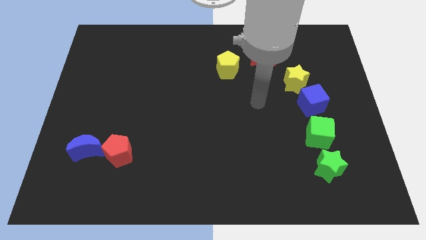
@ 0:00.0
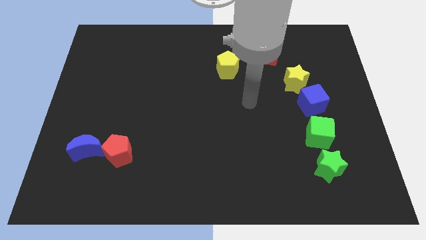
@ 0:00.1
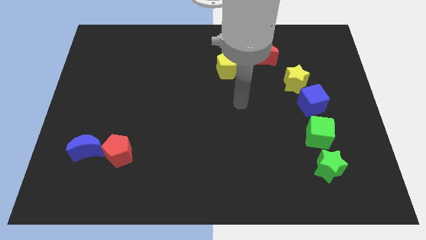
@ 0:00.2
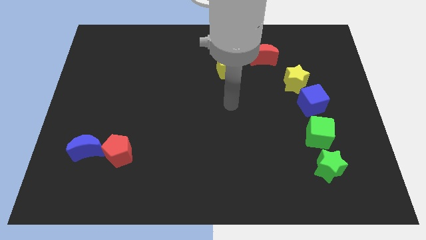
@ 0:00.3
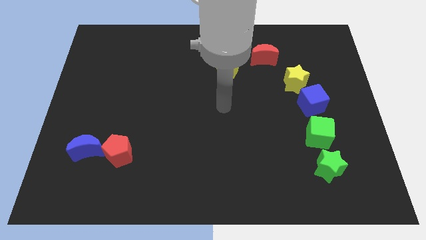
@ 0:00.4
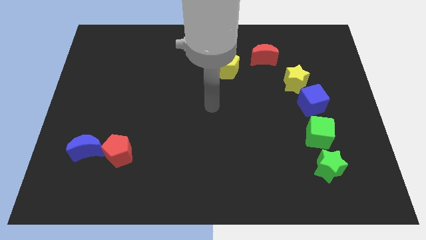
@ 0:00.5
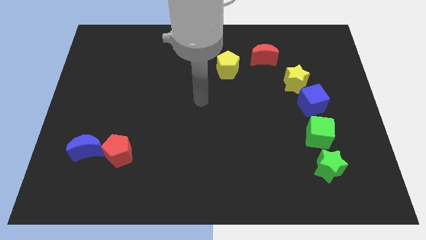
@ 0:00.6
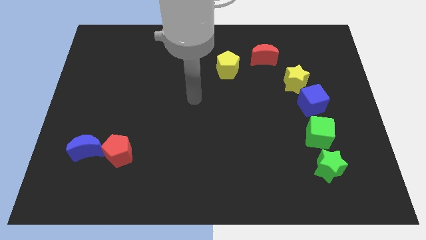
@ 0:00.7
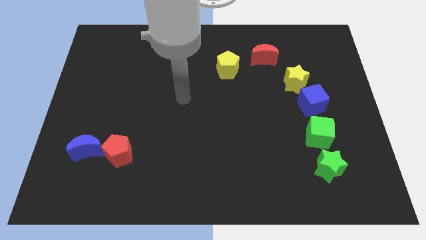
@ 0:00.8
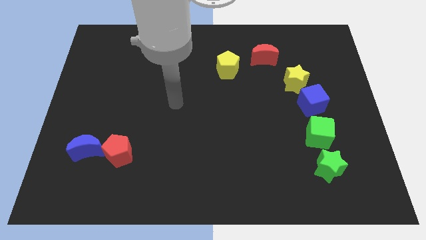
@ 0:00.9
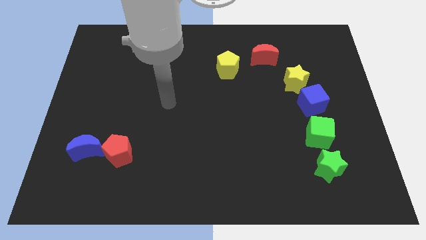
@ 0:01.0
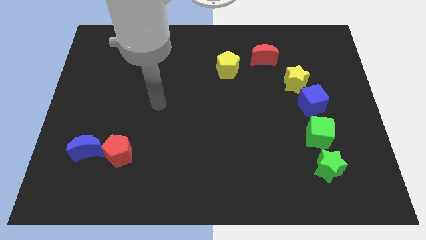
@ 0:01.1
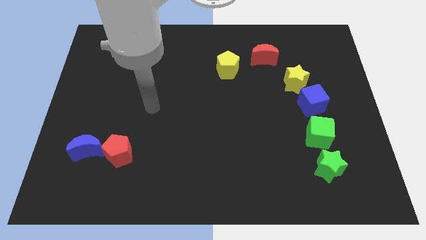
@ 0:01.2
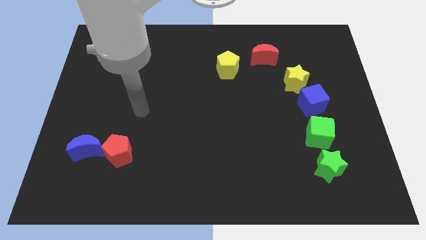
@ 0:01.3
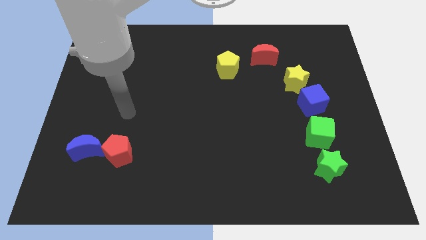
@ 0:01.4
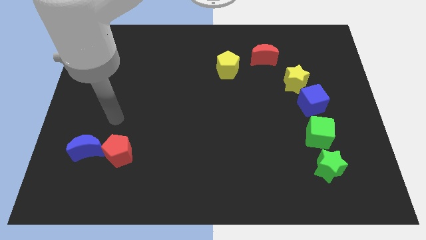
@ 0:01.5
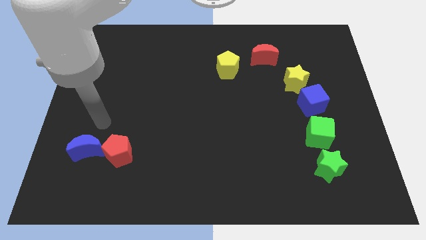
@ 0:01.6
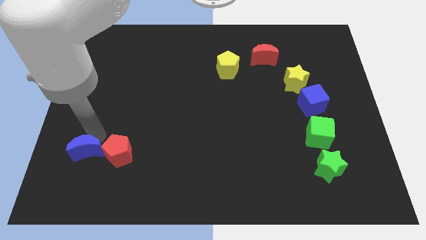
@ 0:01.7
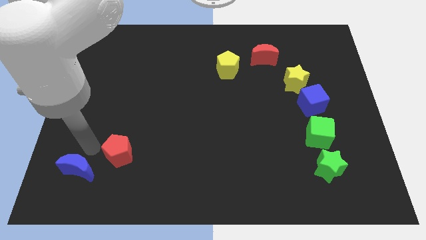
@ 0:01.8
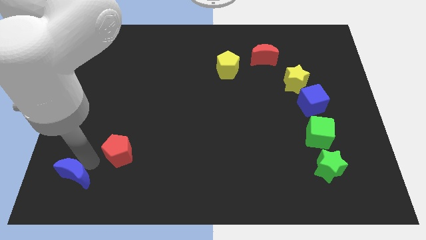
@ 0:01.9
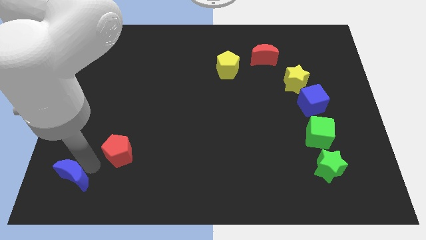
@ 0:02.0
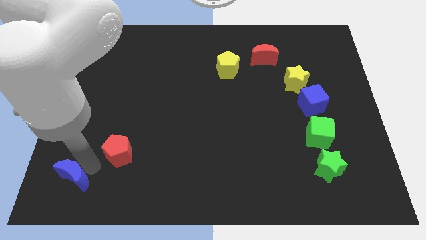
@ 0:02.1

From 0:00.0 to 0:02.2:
move the red pentagon away from the blue moon

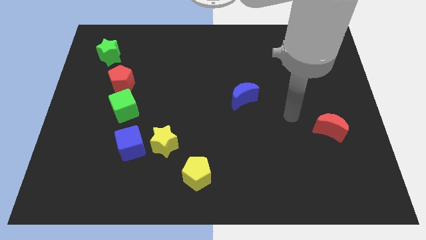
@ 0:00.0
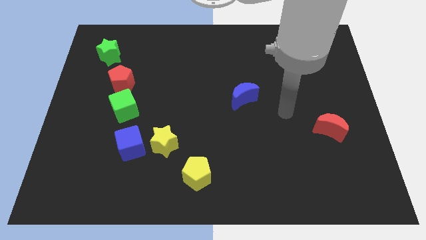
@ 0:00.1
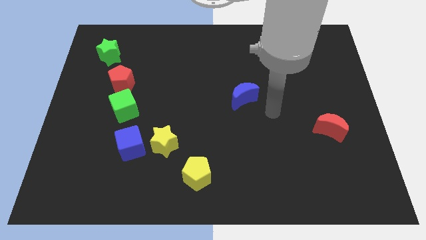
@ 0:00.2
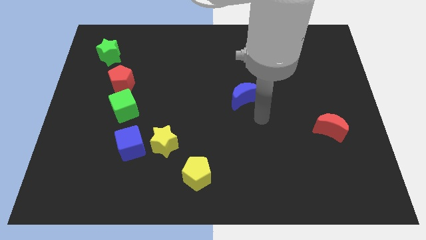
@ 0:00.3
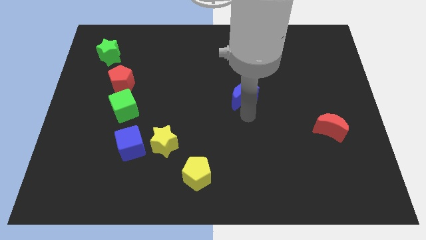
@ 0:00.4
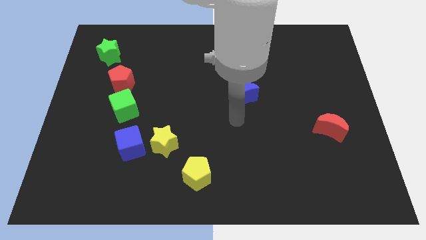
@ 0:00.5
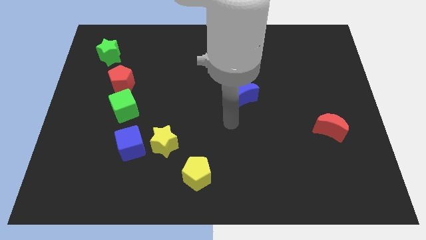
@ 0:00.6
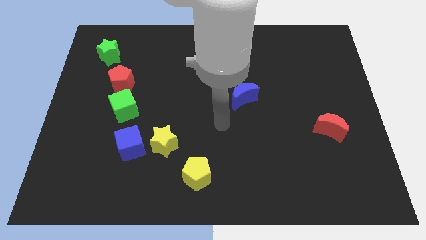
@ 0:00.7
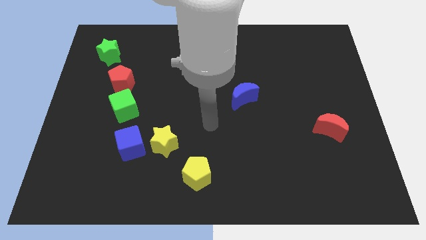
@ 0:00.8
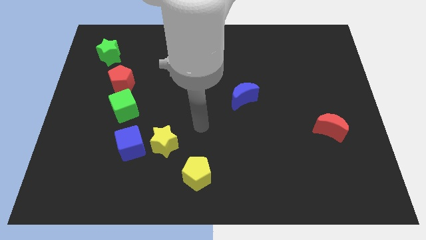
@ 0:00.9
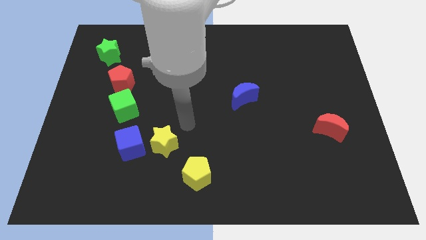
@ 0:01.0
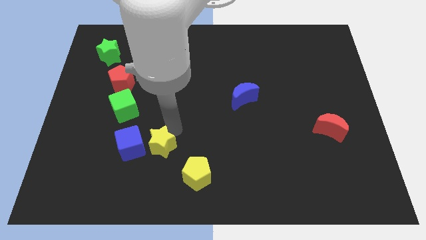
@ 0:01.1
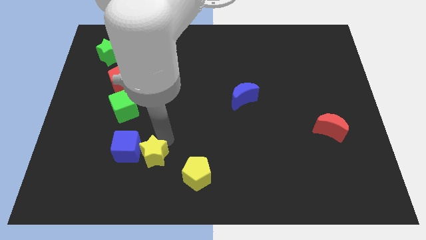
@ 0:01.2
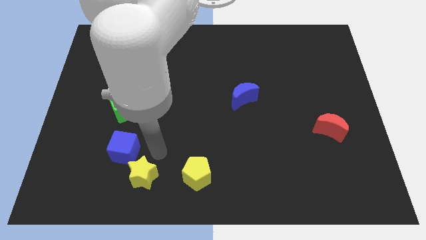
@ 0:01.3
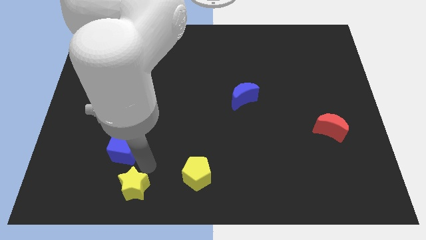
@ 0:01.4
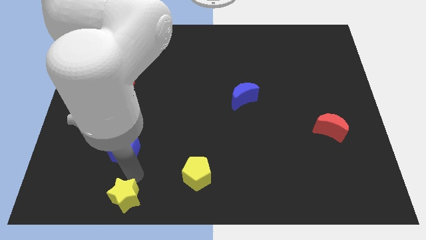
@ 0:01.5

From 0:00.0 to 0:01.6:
pull the blue cube apart from the yellow star

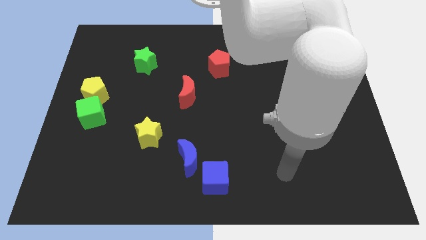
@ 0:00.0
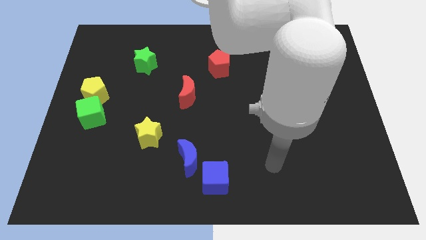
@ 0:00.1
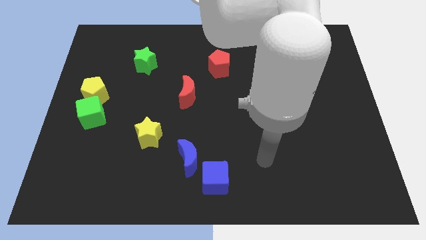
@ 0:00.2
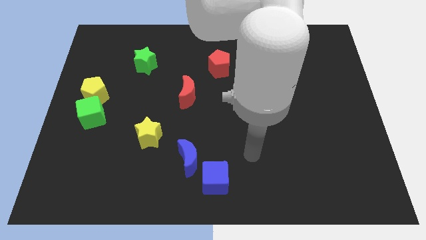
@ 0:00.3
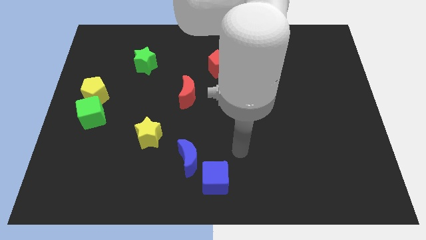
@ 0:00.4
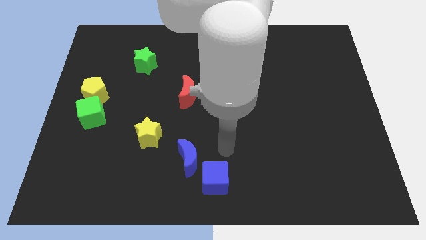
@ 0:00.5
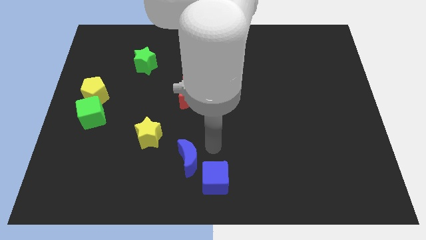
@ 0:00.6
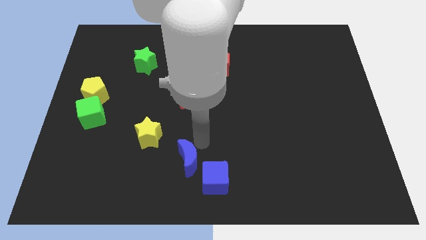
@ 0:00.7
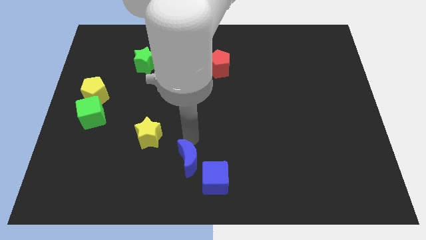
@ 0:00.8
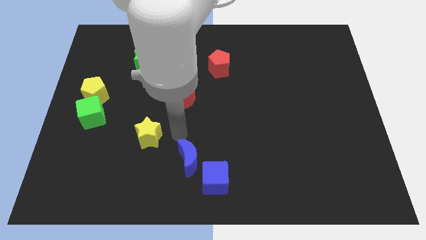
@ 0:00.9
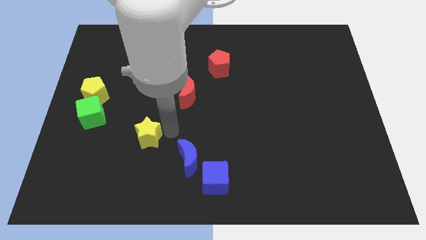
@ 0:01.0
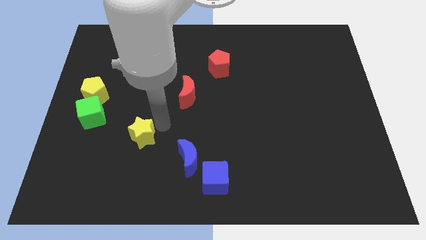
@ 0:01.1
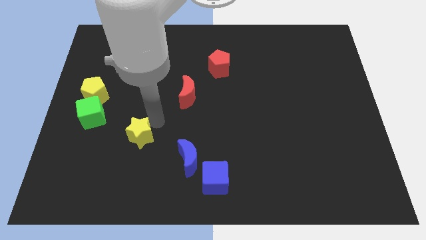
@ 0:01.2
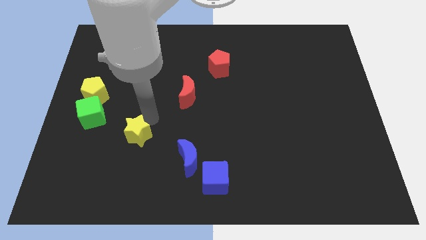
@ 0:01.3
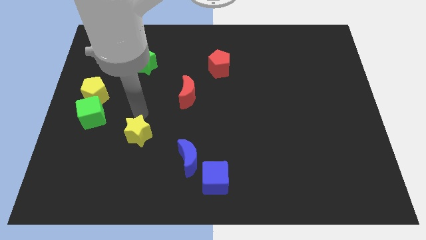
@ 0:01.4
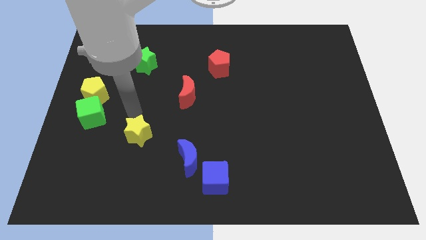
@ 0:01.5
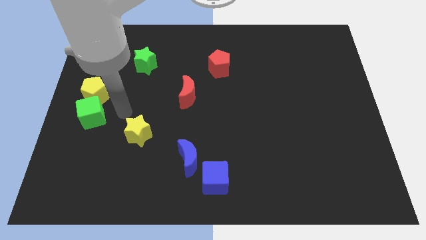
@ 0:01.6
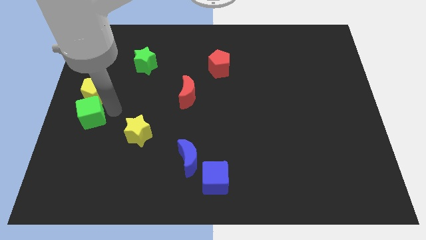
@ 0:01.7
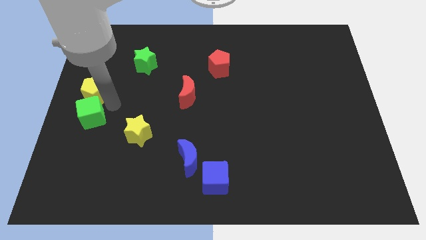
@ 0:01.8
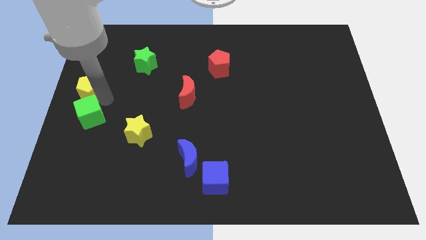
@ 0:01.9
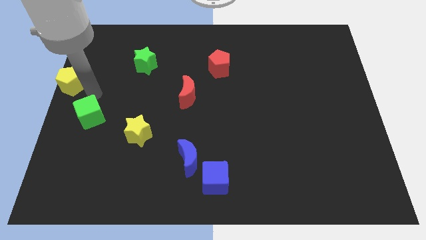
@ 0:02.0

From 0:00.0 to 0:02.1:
separate the green cube from the yellow pentagon

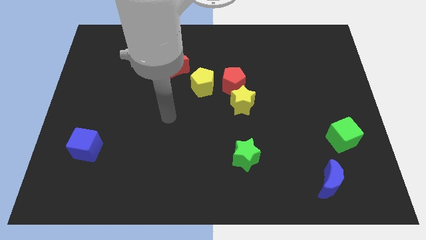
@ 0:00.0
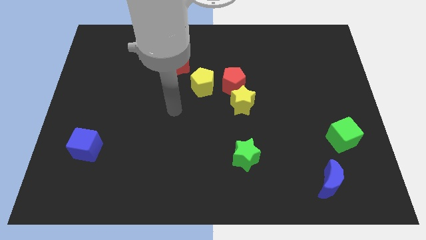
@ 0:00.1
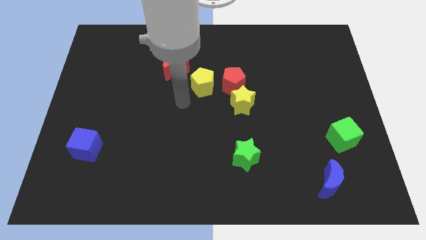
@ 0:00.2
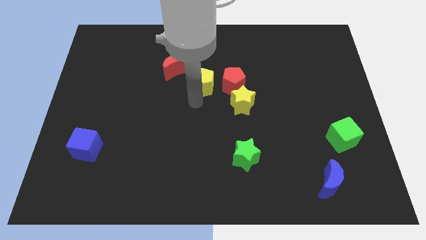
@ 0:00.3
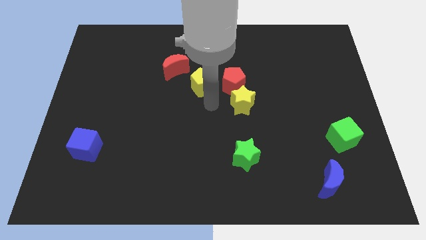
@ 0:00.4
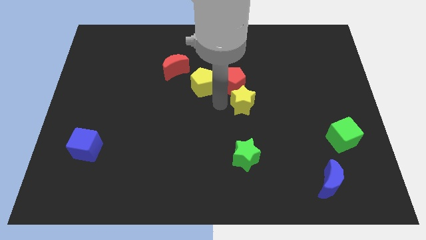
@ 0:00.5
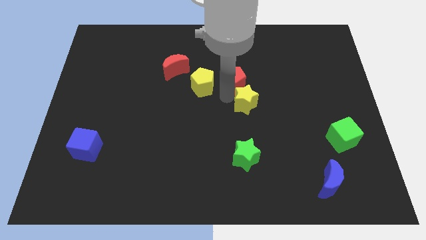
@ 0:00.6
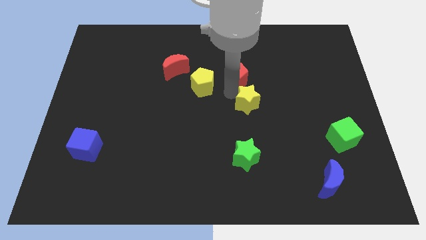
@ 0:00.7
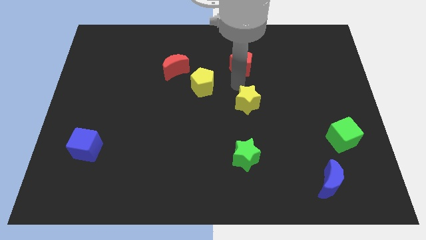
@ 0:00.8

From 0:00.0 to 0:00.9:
move the yellow star away from the red pentagon

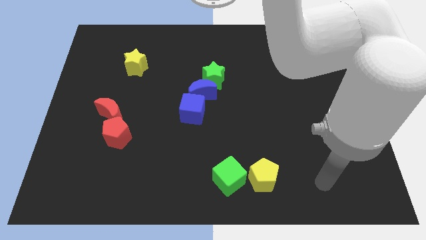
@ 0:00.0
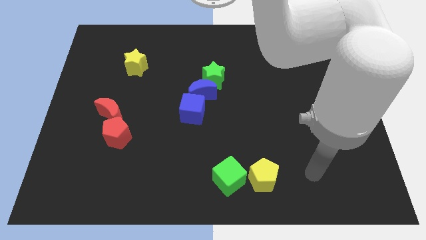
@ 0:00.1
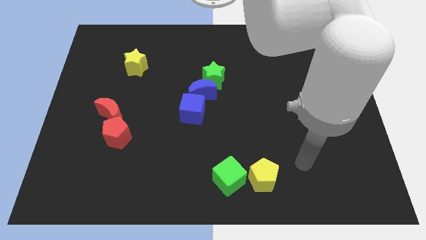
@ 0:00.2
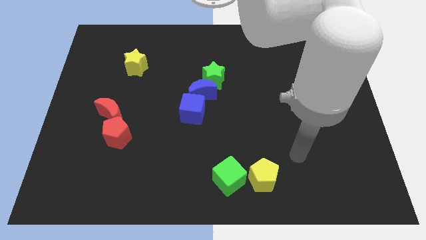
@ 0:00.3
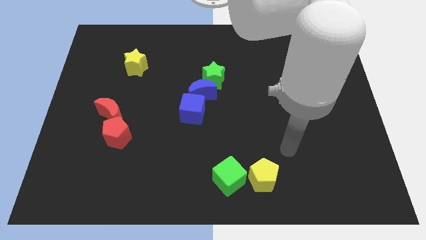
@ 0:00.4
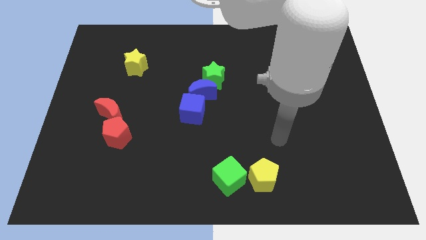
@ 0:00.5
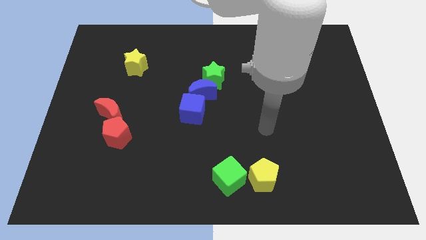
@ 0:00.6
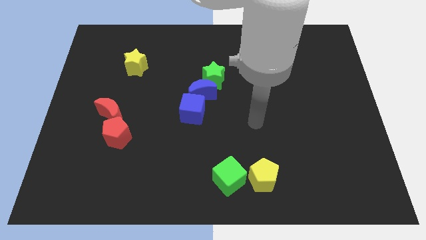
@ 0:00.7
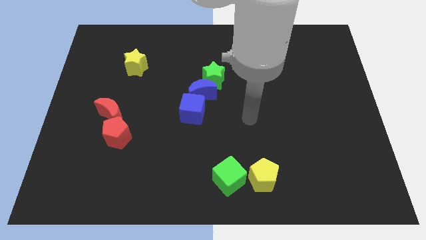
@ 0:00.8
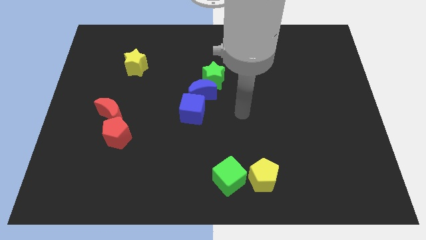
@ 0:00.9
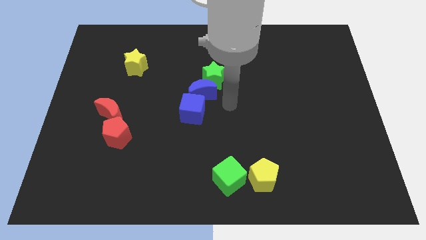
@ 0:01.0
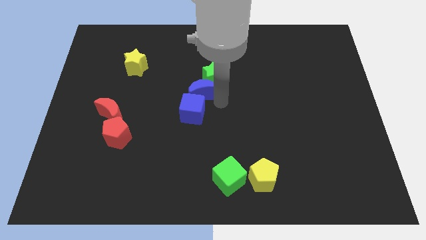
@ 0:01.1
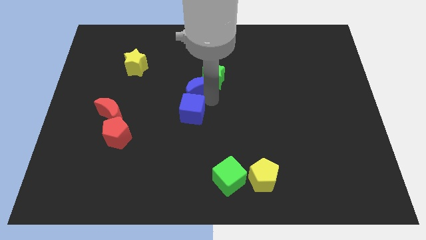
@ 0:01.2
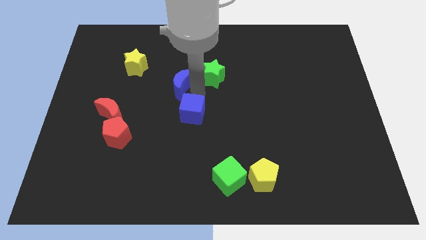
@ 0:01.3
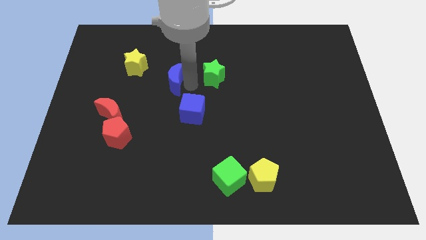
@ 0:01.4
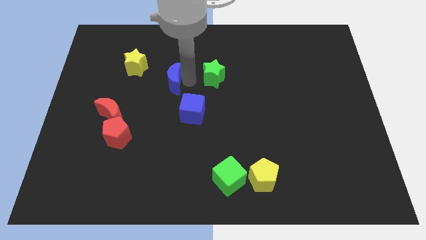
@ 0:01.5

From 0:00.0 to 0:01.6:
pull the green star apart from the blue moon

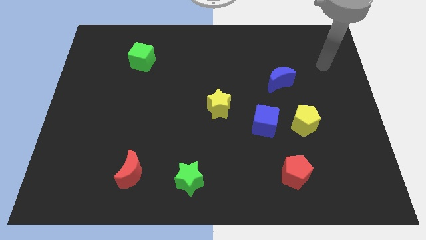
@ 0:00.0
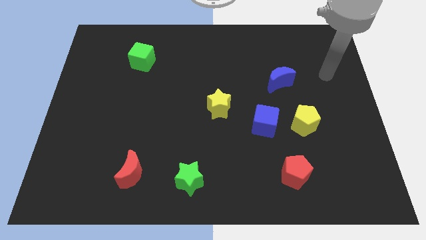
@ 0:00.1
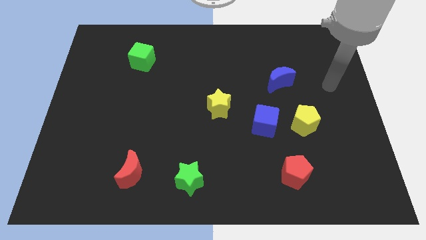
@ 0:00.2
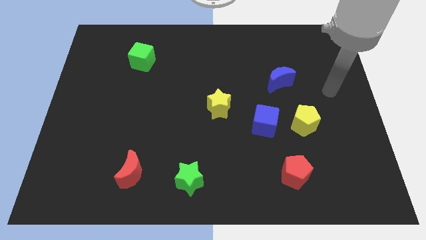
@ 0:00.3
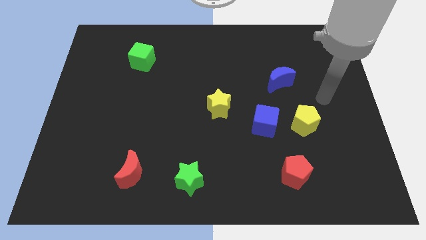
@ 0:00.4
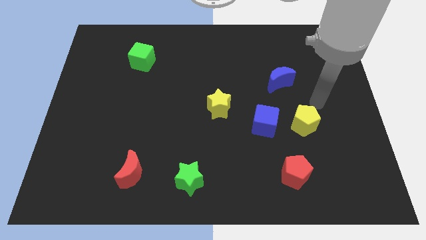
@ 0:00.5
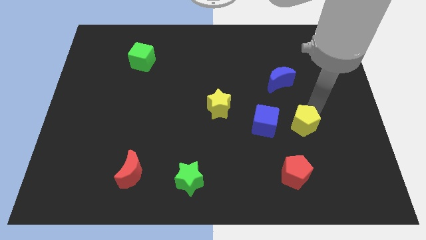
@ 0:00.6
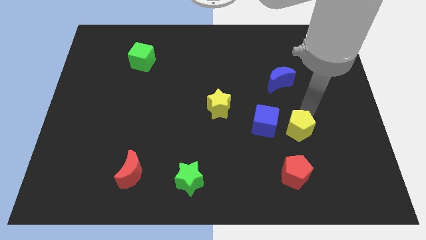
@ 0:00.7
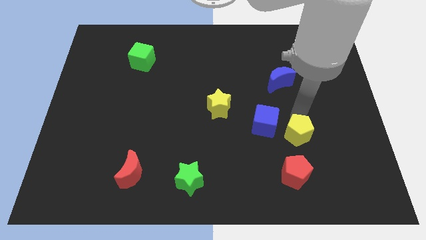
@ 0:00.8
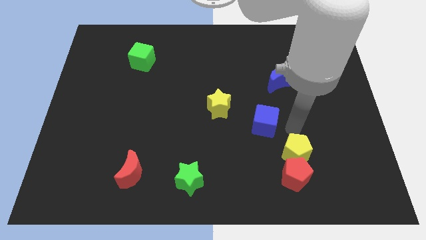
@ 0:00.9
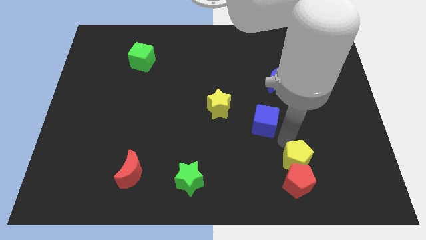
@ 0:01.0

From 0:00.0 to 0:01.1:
move the blue cube away from the yellow pentagon
